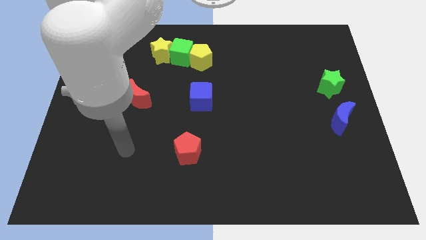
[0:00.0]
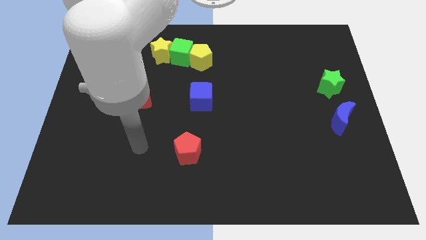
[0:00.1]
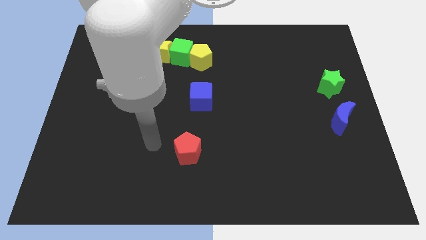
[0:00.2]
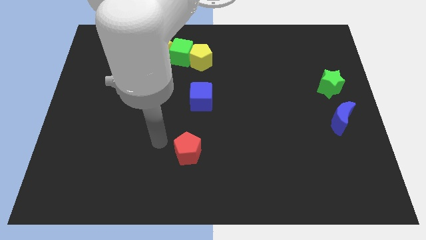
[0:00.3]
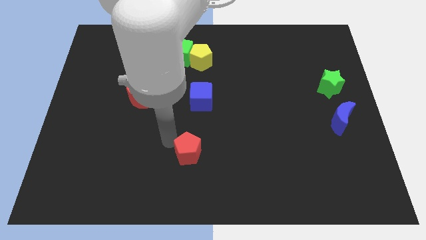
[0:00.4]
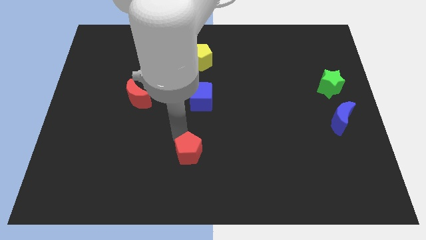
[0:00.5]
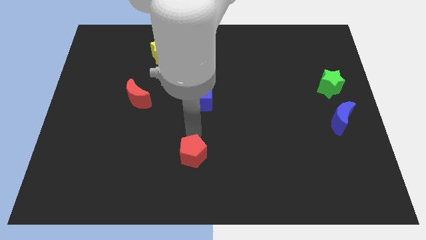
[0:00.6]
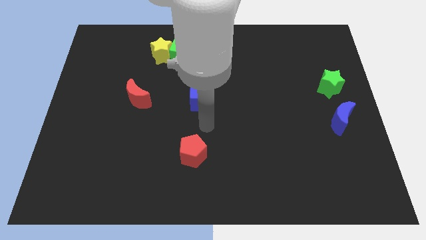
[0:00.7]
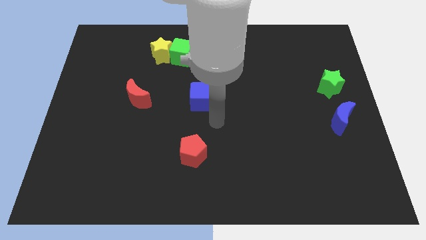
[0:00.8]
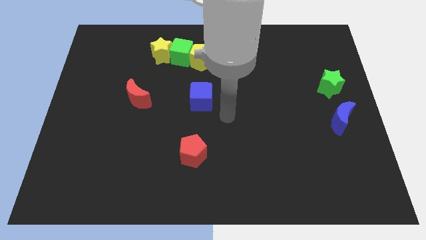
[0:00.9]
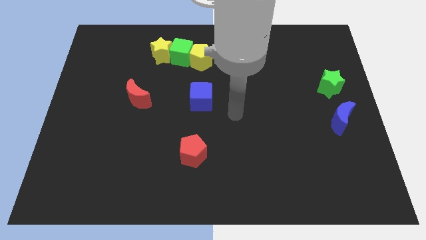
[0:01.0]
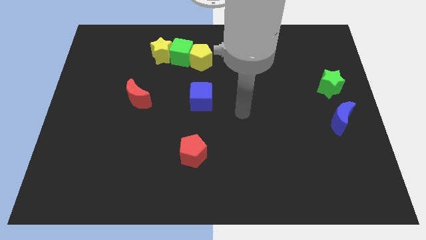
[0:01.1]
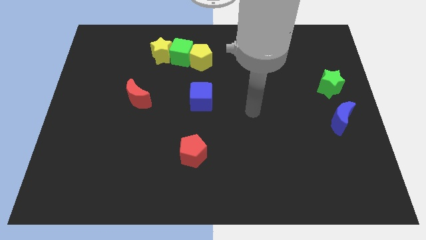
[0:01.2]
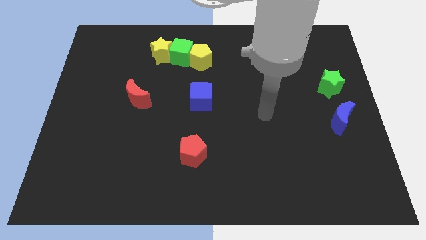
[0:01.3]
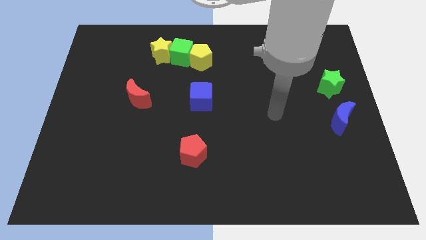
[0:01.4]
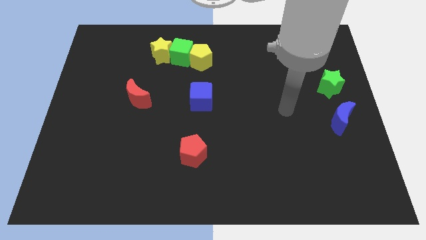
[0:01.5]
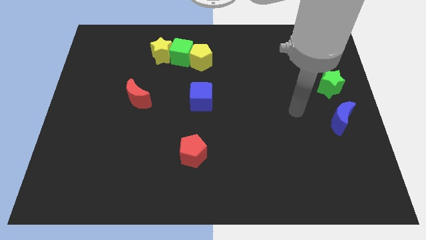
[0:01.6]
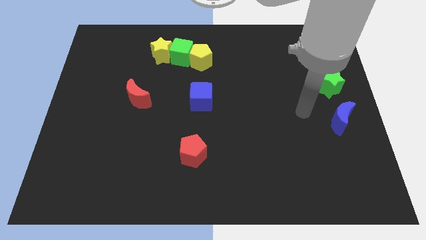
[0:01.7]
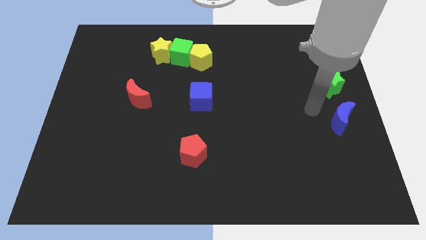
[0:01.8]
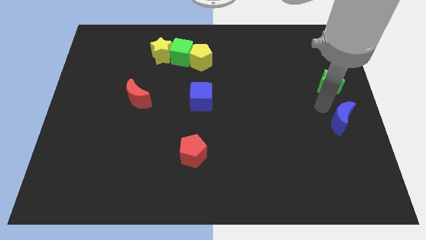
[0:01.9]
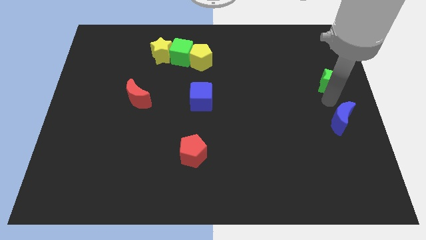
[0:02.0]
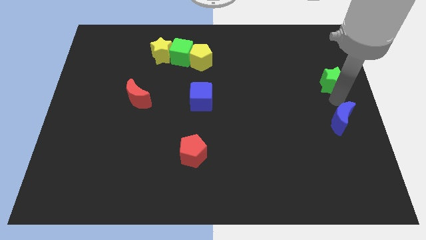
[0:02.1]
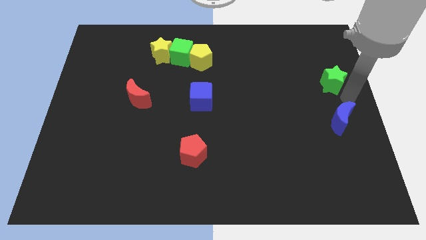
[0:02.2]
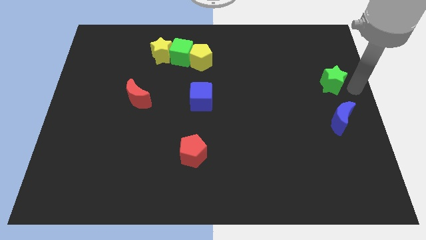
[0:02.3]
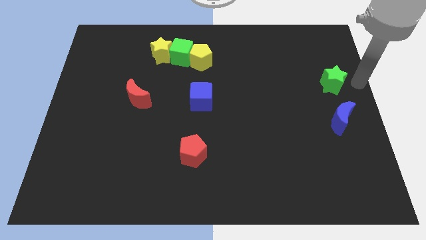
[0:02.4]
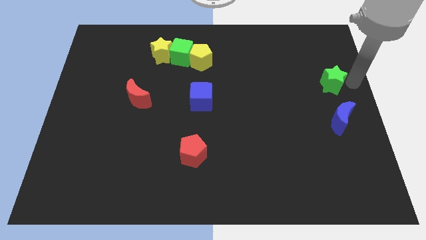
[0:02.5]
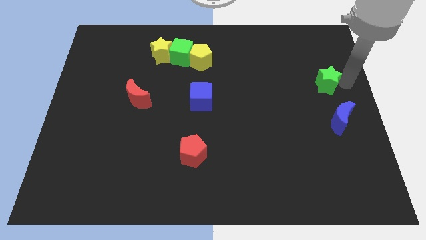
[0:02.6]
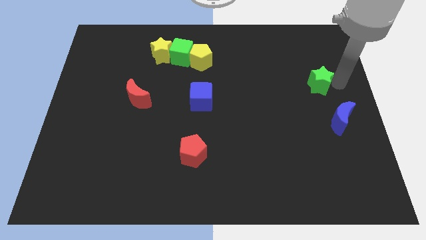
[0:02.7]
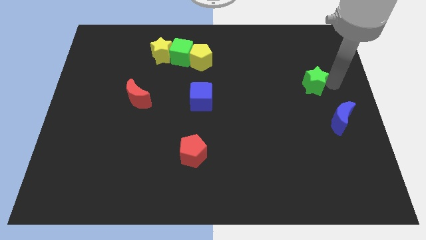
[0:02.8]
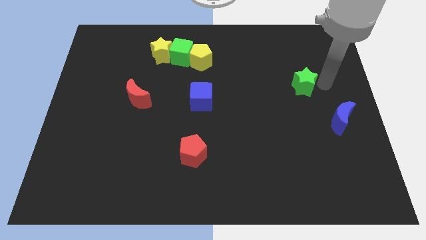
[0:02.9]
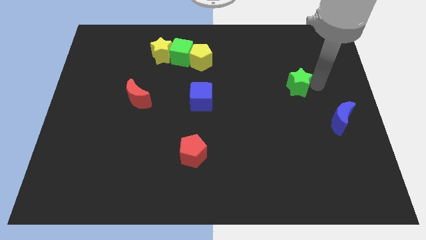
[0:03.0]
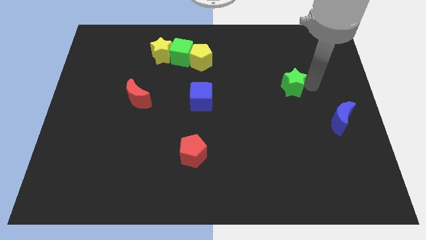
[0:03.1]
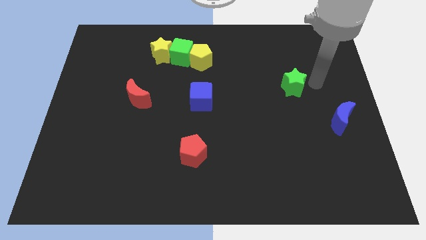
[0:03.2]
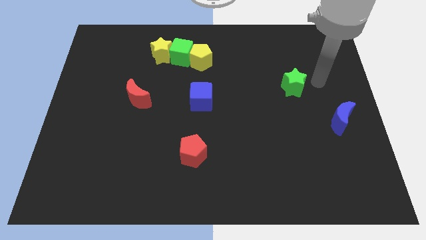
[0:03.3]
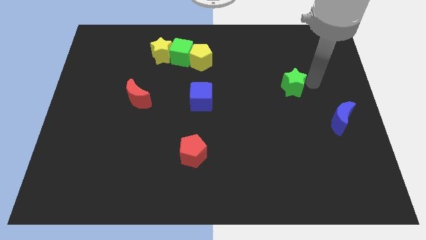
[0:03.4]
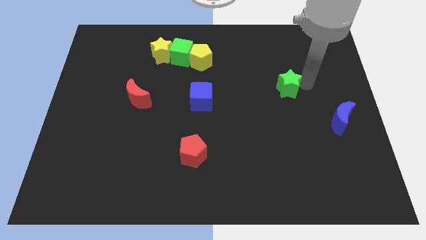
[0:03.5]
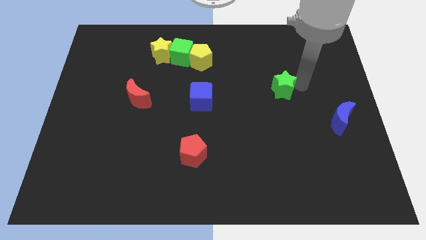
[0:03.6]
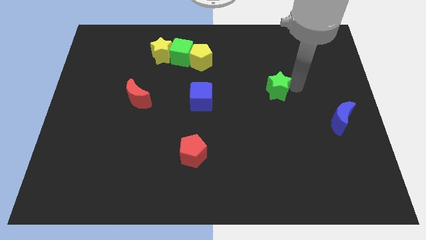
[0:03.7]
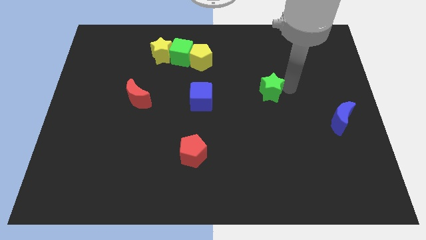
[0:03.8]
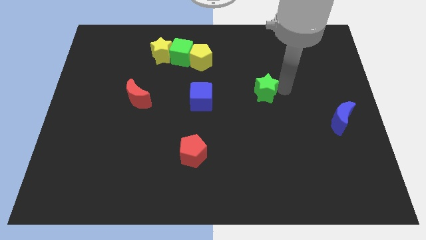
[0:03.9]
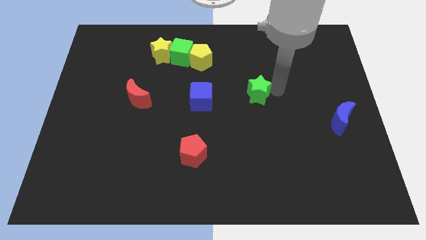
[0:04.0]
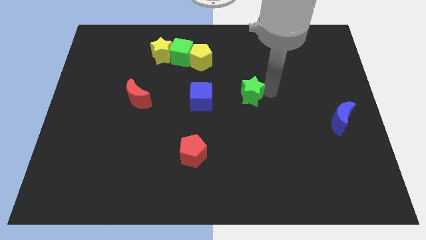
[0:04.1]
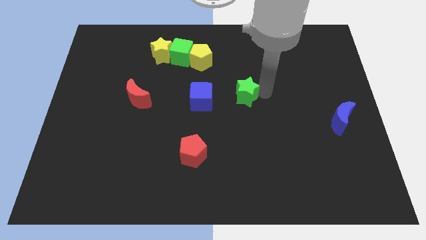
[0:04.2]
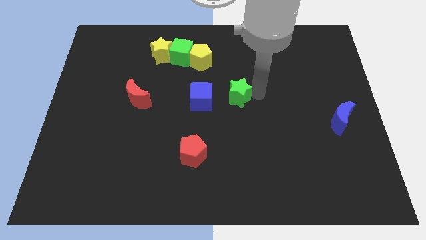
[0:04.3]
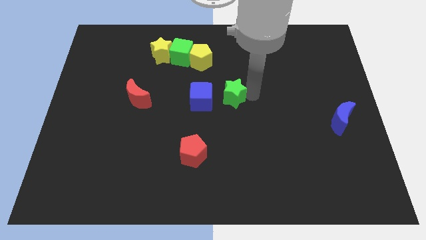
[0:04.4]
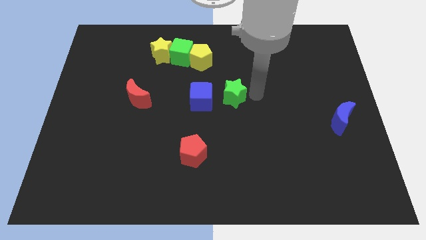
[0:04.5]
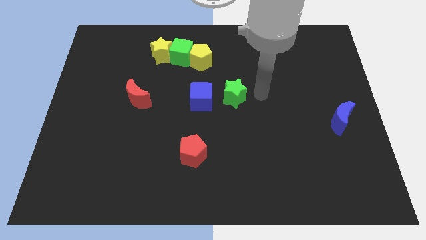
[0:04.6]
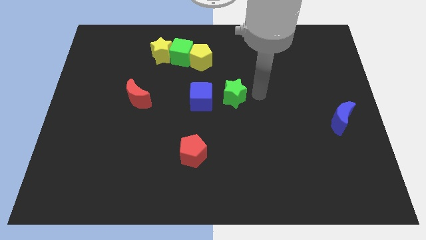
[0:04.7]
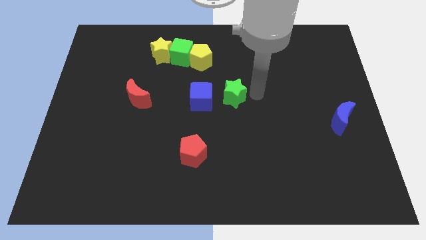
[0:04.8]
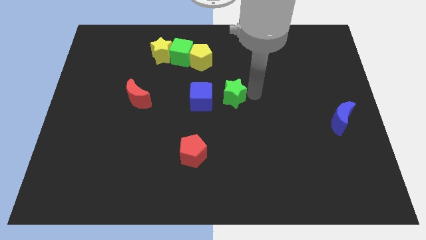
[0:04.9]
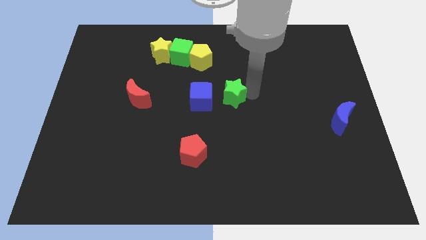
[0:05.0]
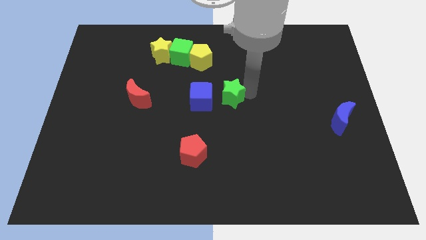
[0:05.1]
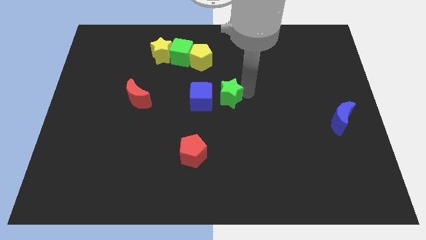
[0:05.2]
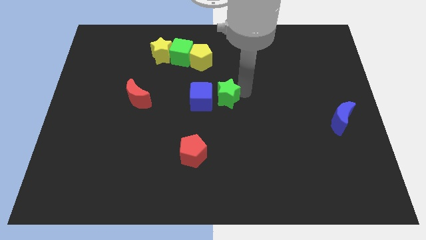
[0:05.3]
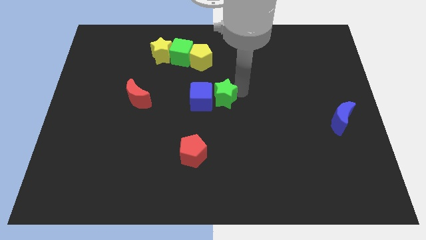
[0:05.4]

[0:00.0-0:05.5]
slide the green star close to the blue cube

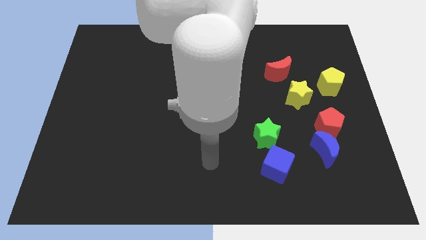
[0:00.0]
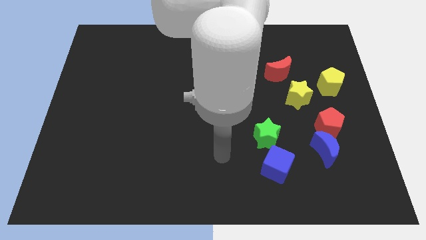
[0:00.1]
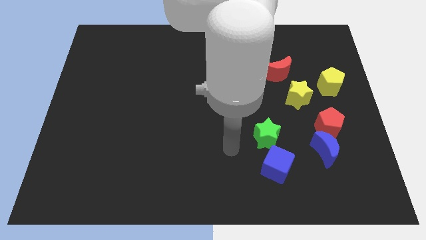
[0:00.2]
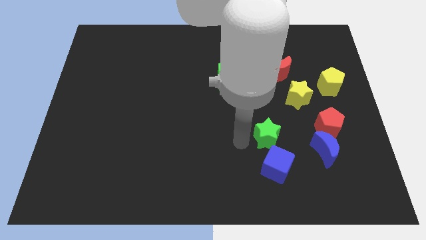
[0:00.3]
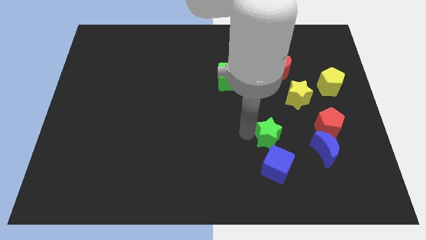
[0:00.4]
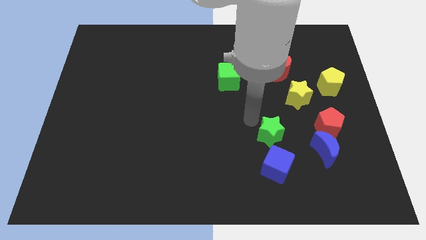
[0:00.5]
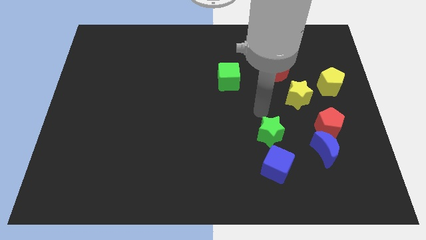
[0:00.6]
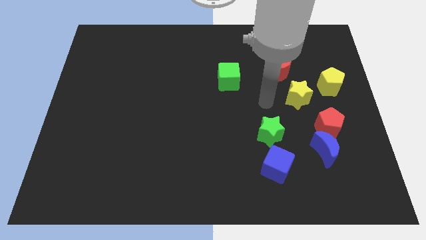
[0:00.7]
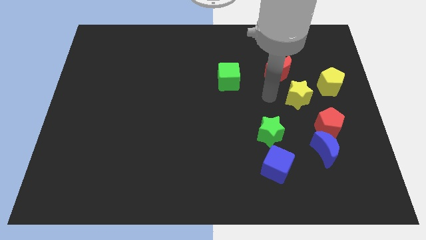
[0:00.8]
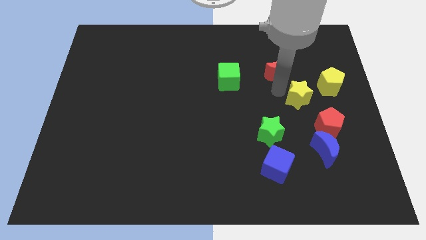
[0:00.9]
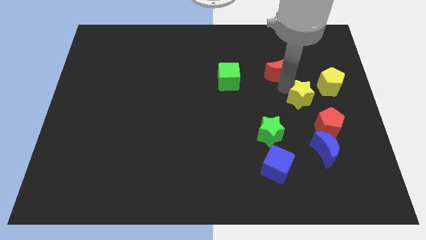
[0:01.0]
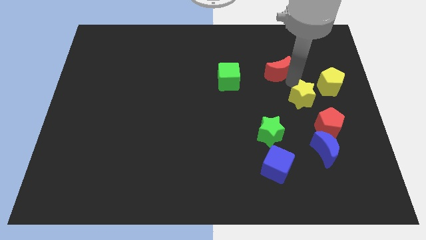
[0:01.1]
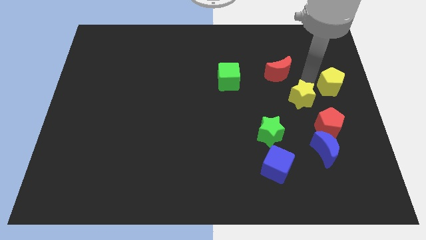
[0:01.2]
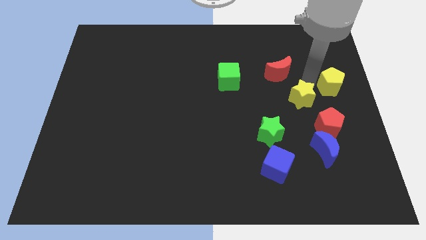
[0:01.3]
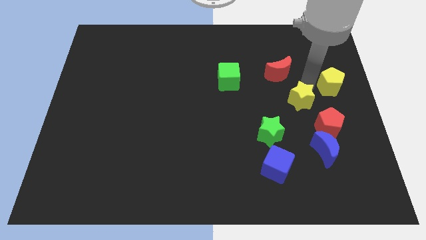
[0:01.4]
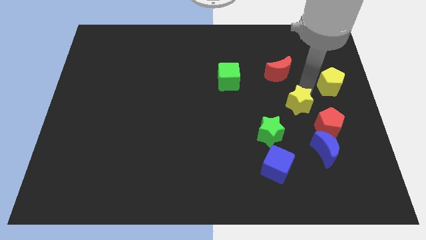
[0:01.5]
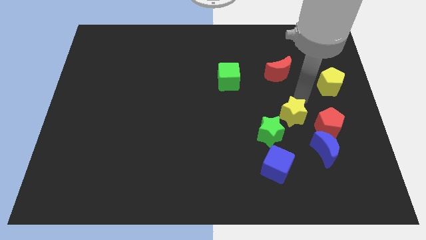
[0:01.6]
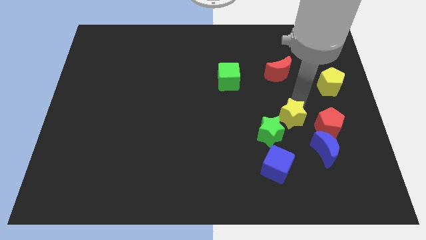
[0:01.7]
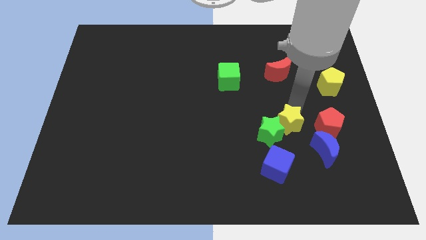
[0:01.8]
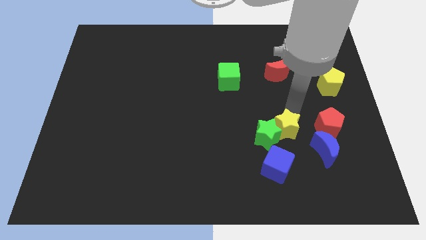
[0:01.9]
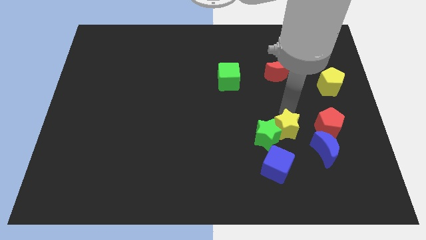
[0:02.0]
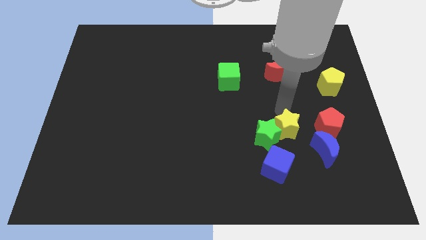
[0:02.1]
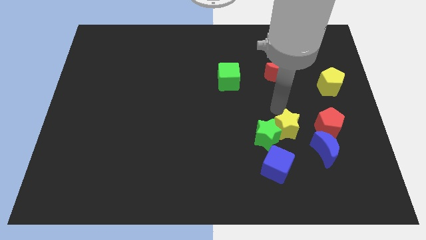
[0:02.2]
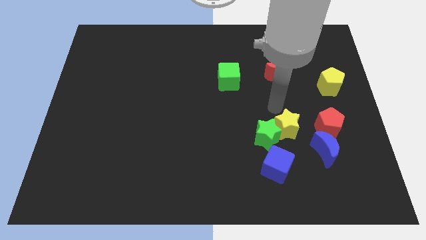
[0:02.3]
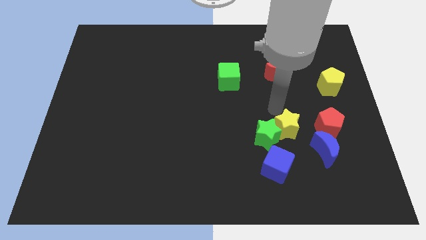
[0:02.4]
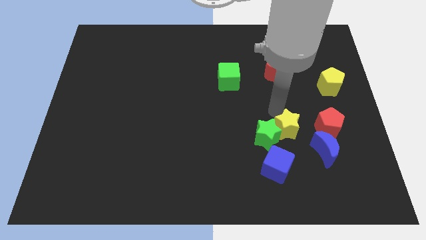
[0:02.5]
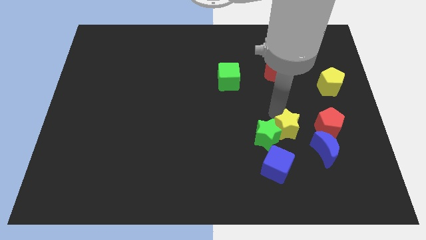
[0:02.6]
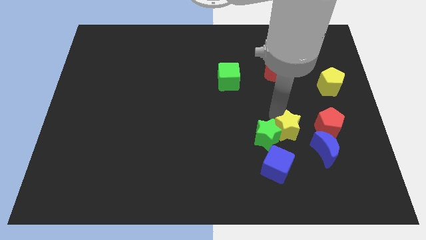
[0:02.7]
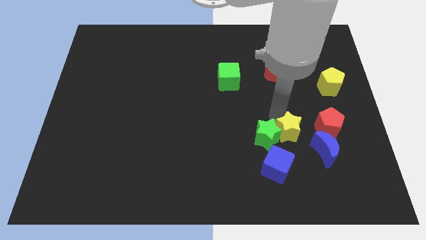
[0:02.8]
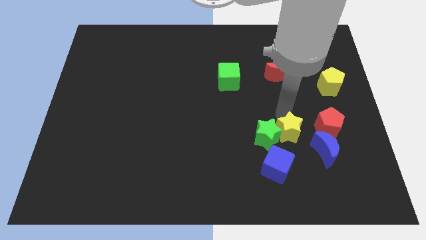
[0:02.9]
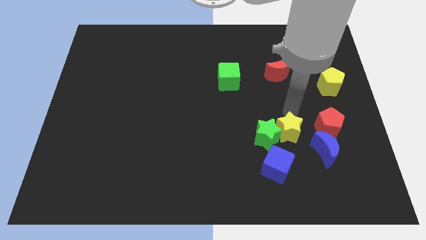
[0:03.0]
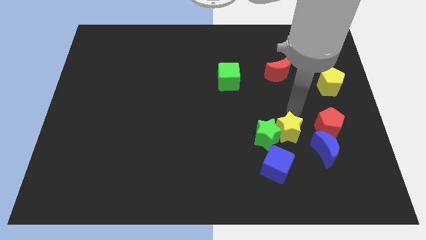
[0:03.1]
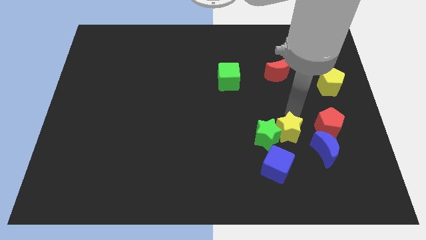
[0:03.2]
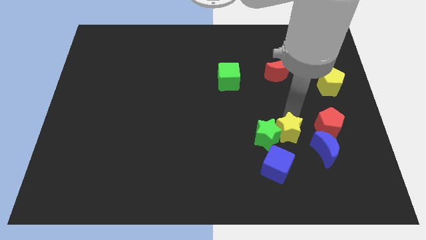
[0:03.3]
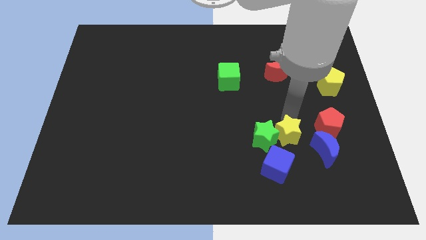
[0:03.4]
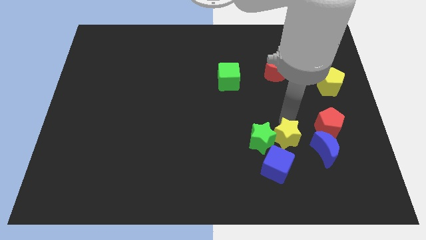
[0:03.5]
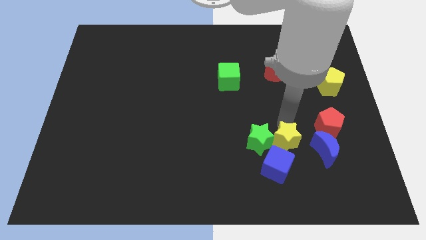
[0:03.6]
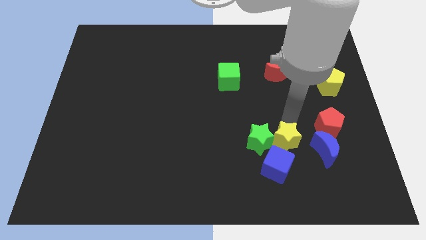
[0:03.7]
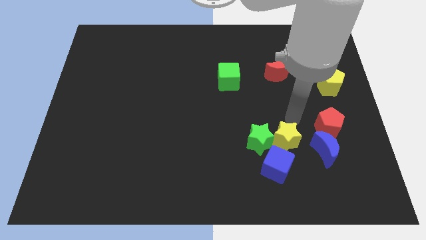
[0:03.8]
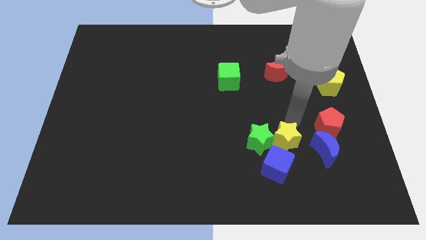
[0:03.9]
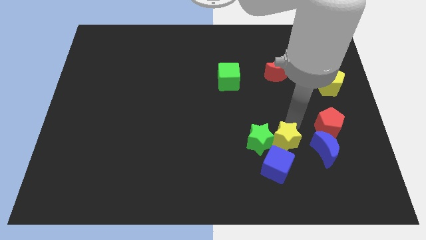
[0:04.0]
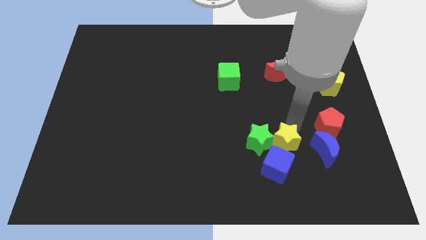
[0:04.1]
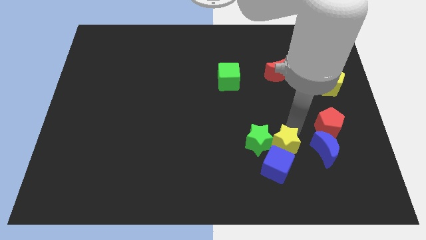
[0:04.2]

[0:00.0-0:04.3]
push the yellow star towards the blue cube
